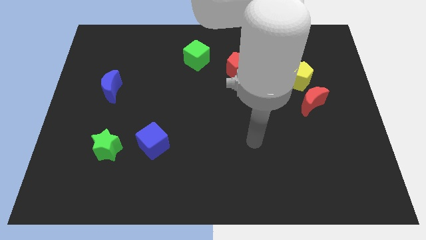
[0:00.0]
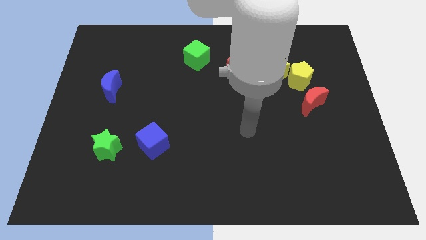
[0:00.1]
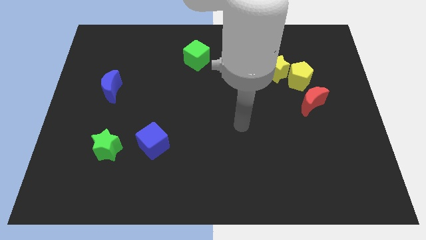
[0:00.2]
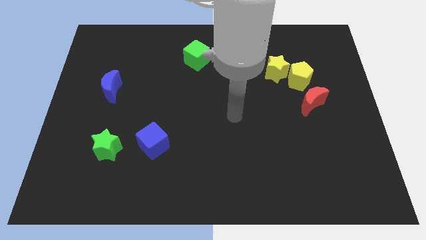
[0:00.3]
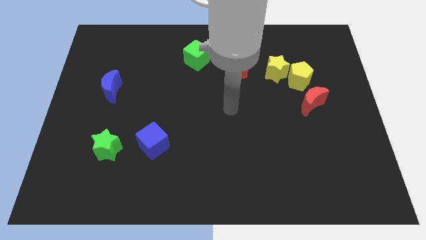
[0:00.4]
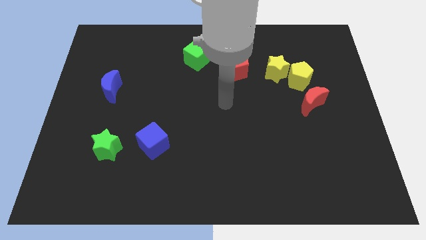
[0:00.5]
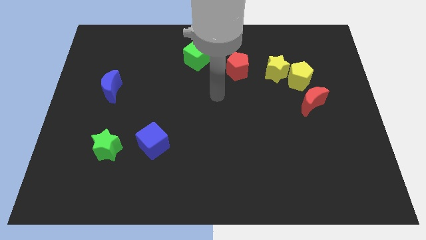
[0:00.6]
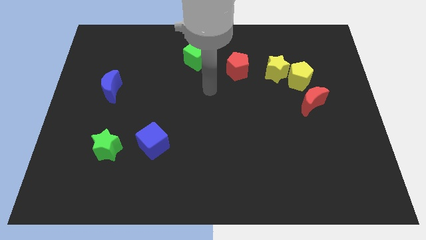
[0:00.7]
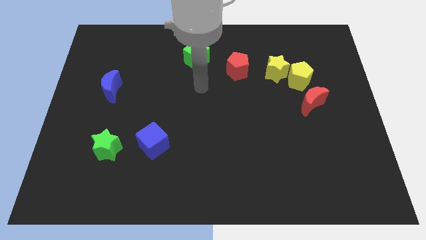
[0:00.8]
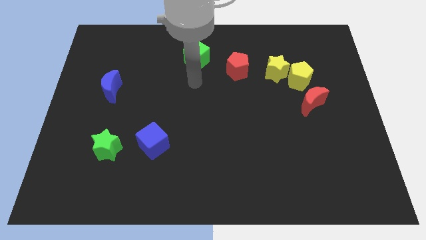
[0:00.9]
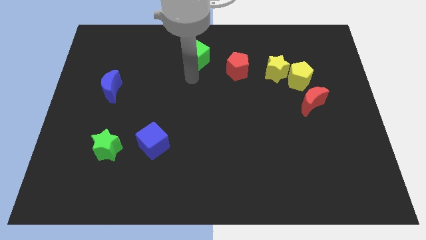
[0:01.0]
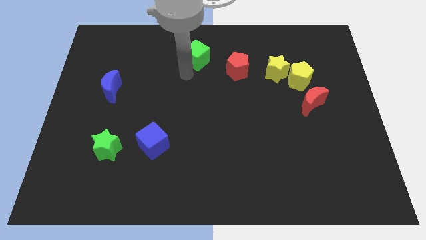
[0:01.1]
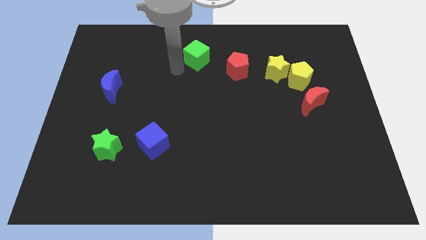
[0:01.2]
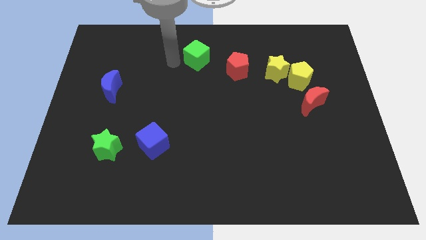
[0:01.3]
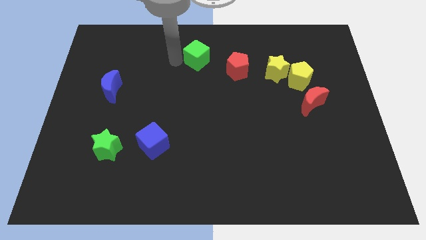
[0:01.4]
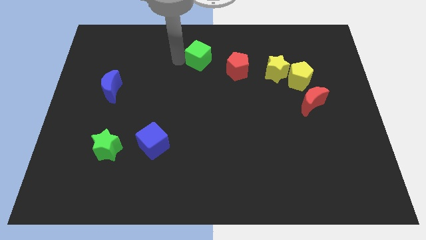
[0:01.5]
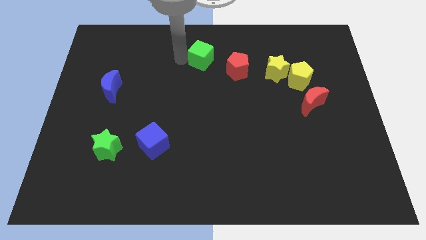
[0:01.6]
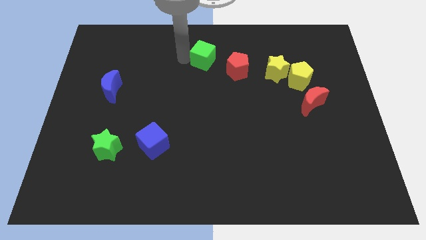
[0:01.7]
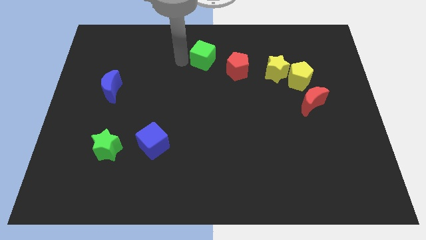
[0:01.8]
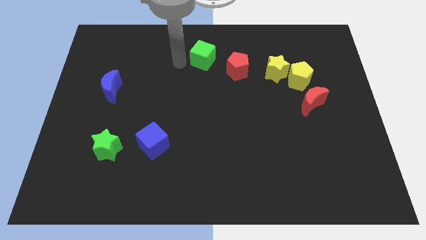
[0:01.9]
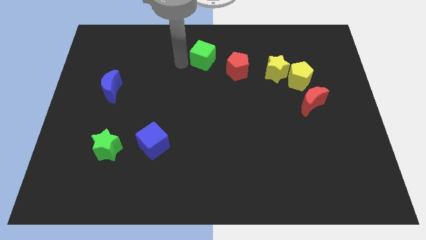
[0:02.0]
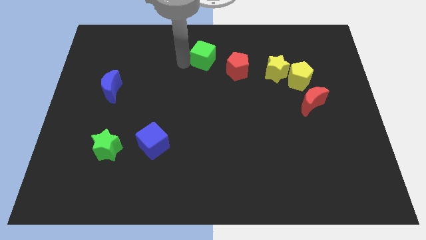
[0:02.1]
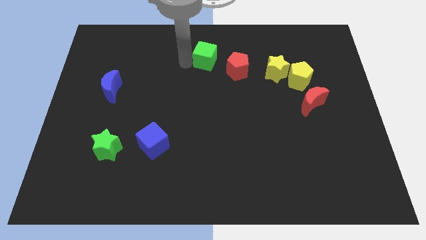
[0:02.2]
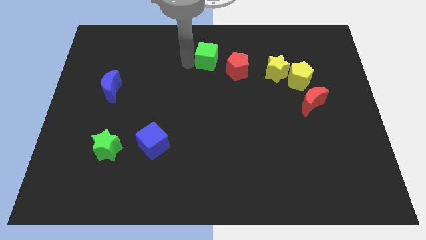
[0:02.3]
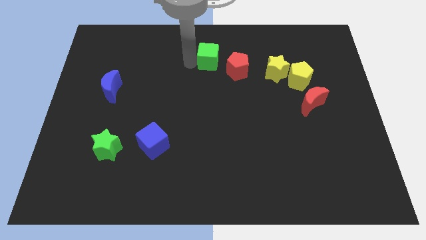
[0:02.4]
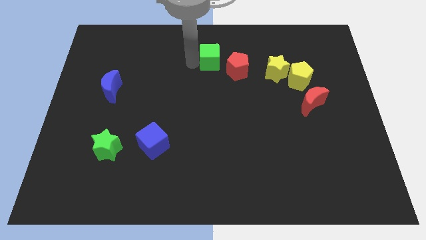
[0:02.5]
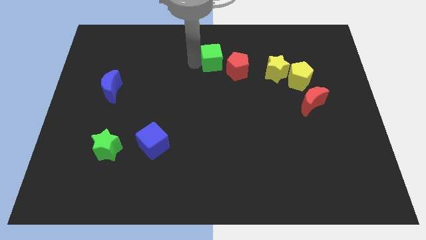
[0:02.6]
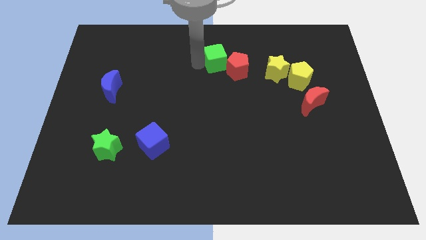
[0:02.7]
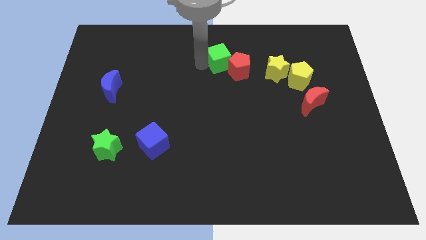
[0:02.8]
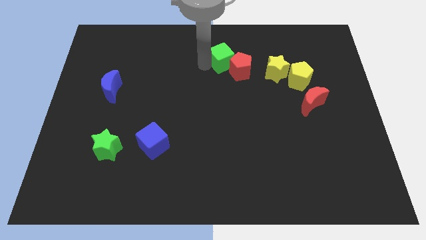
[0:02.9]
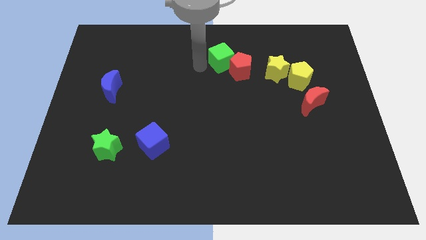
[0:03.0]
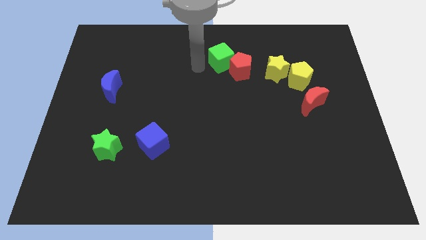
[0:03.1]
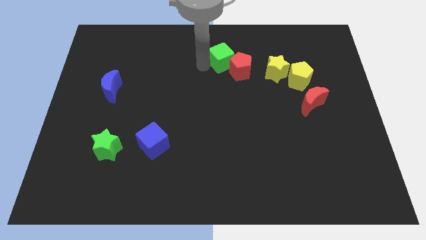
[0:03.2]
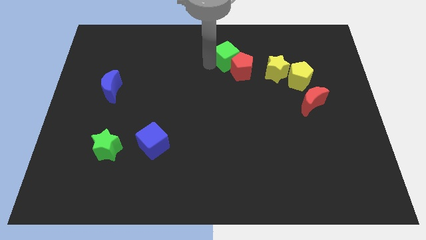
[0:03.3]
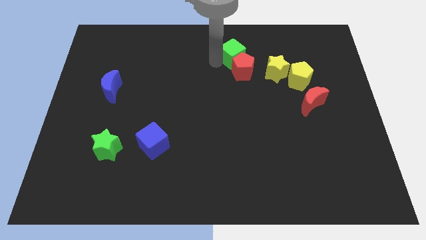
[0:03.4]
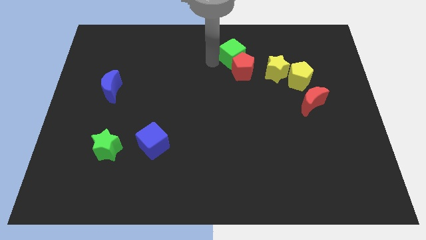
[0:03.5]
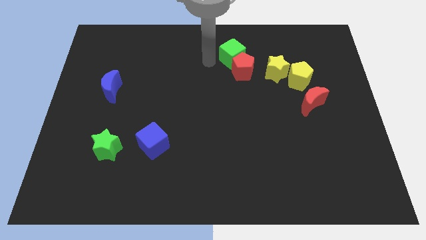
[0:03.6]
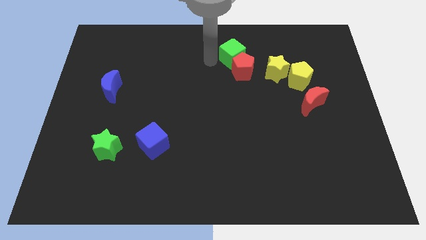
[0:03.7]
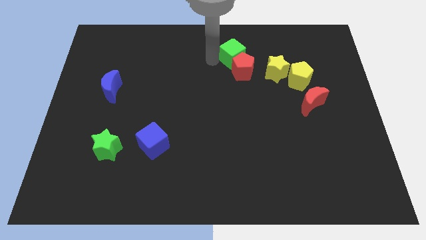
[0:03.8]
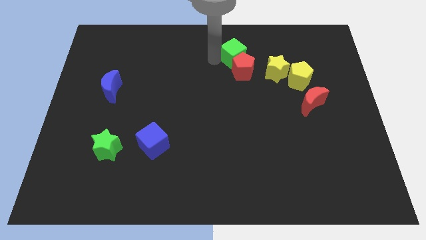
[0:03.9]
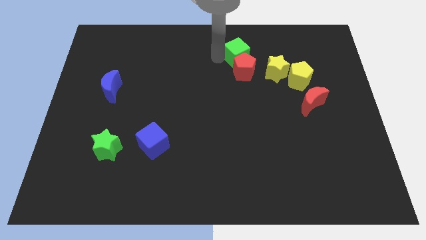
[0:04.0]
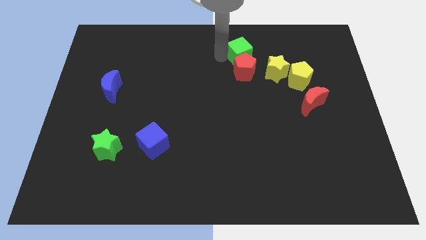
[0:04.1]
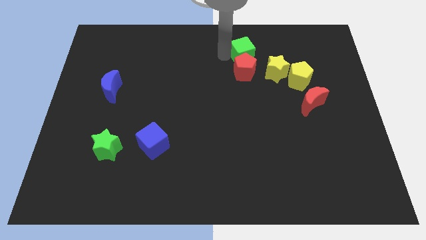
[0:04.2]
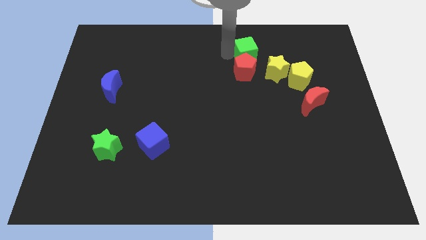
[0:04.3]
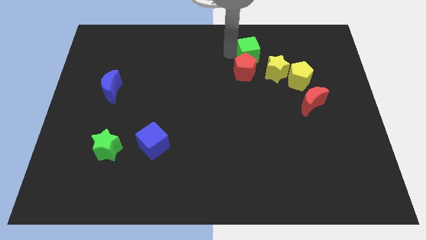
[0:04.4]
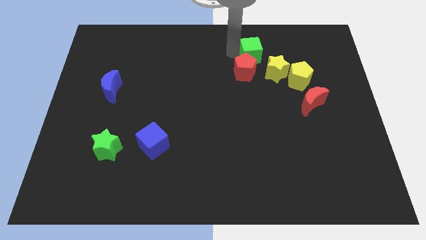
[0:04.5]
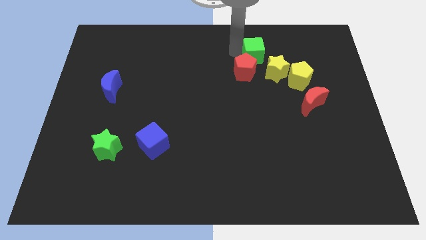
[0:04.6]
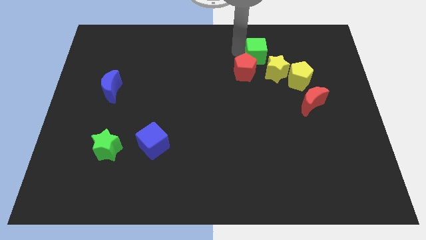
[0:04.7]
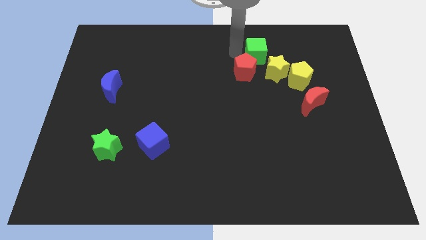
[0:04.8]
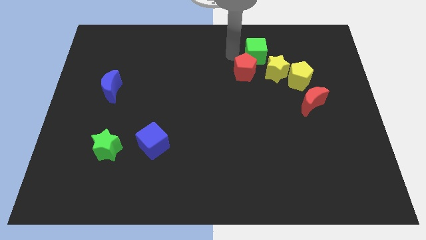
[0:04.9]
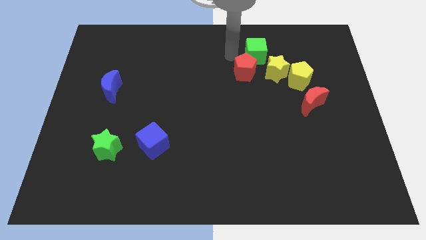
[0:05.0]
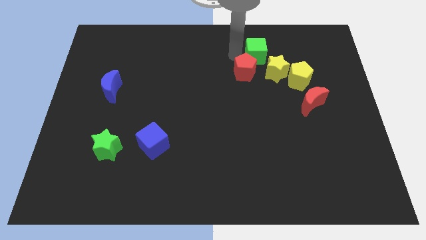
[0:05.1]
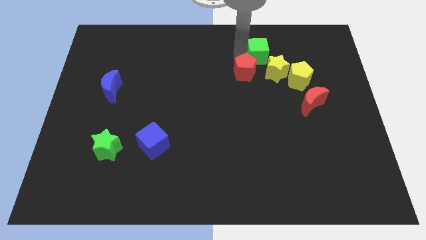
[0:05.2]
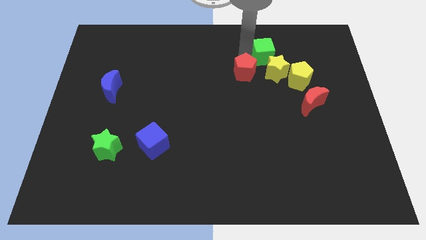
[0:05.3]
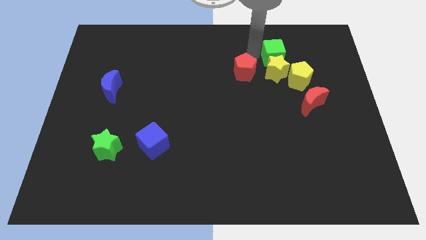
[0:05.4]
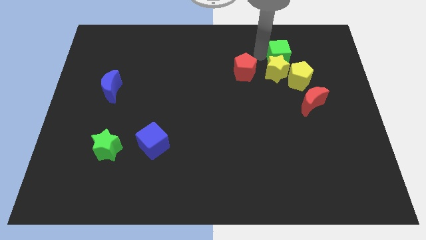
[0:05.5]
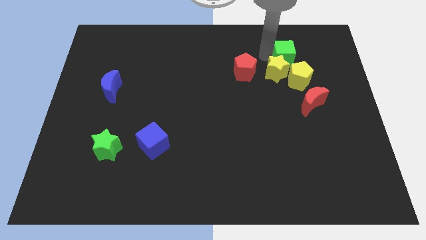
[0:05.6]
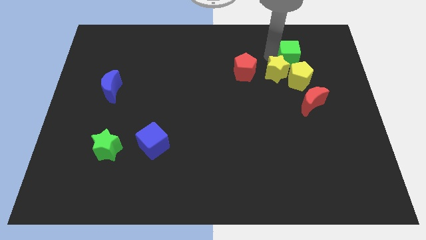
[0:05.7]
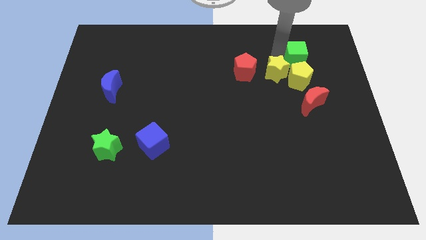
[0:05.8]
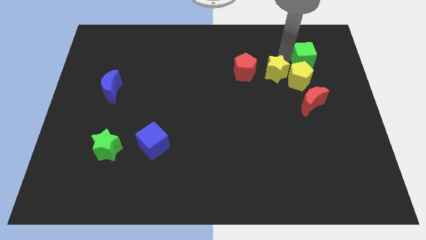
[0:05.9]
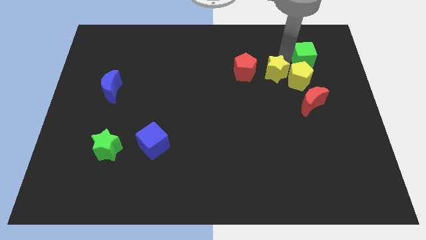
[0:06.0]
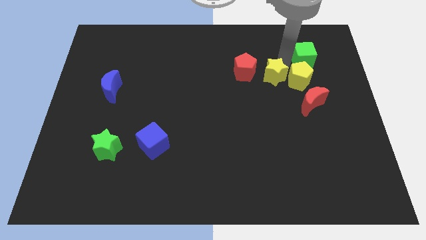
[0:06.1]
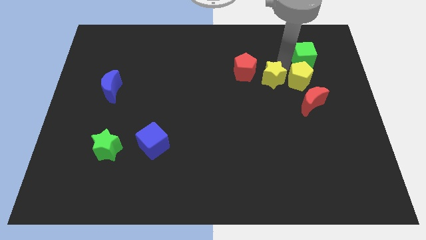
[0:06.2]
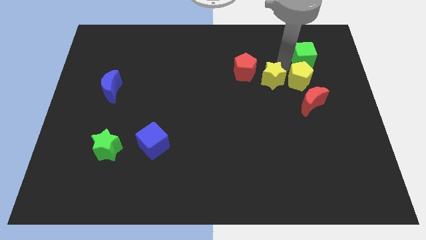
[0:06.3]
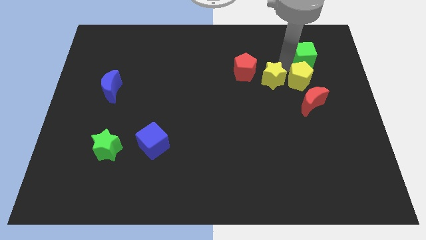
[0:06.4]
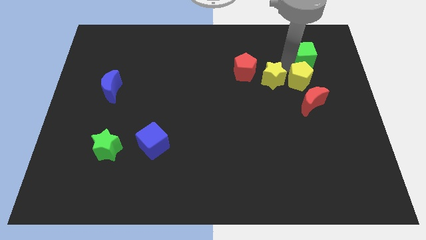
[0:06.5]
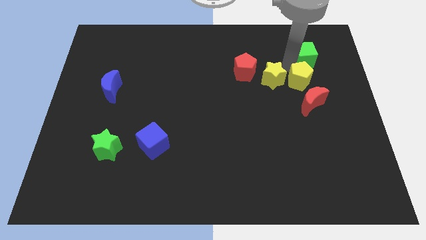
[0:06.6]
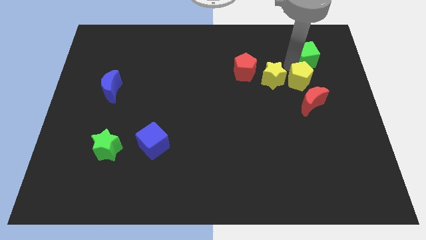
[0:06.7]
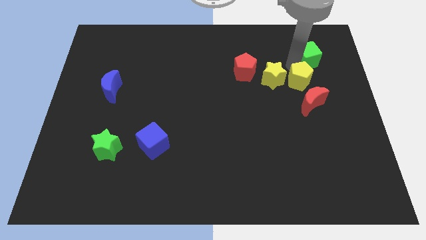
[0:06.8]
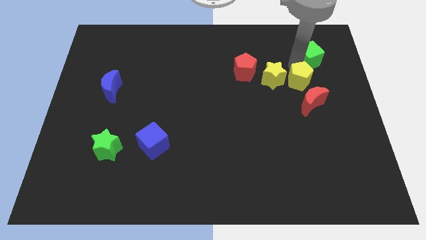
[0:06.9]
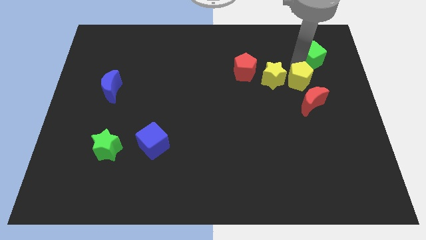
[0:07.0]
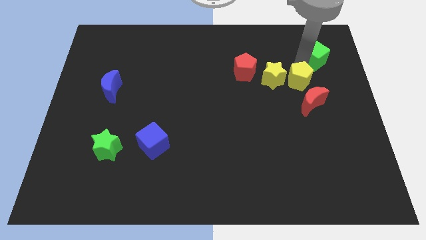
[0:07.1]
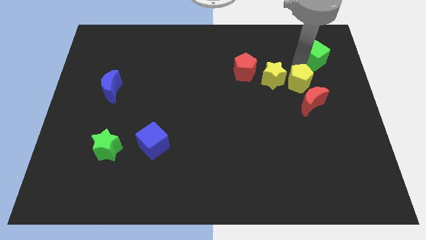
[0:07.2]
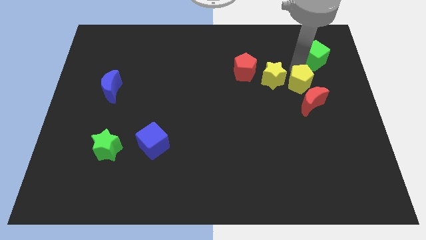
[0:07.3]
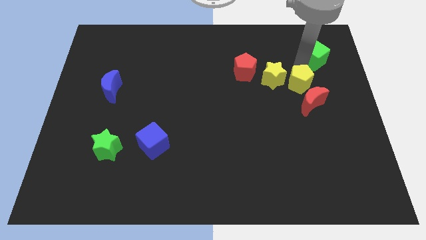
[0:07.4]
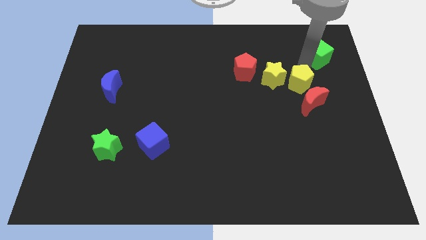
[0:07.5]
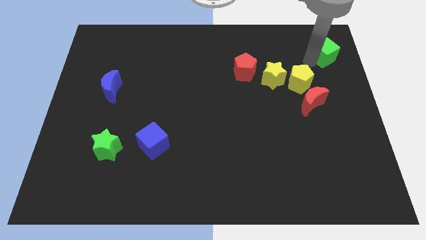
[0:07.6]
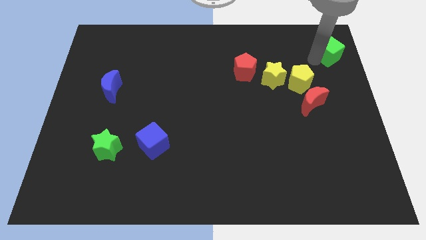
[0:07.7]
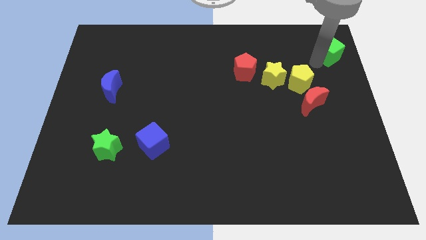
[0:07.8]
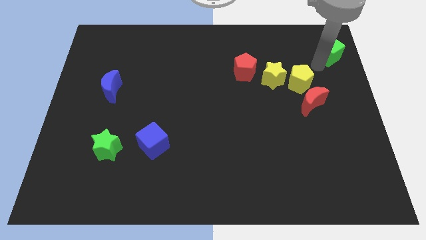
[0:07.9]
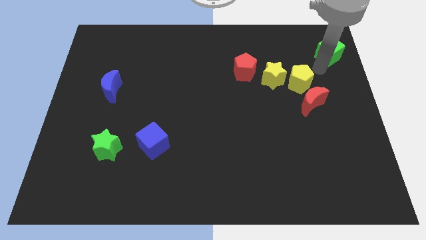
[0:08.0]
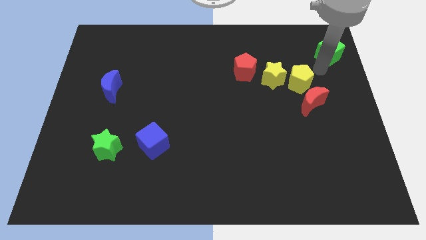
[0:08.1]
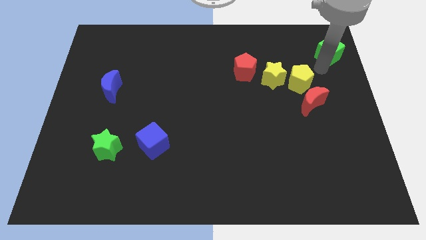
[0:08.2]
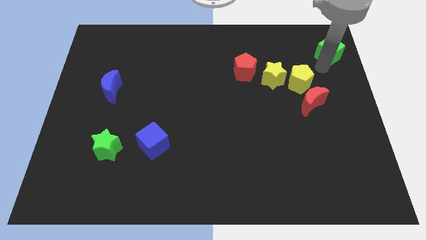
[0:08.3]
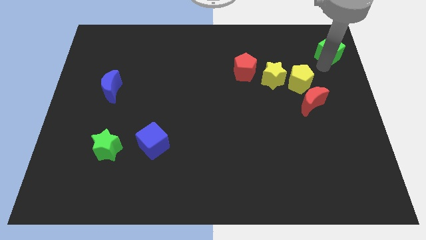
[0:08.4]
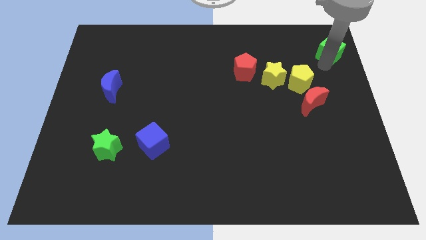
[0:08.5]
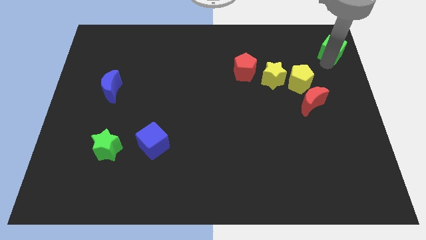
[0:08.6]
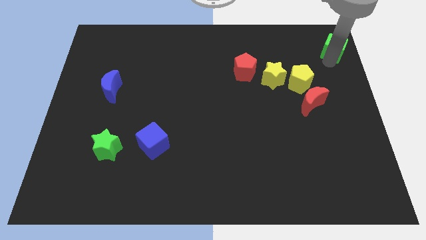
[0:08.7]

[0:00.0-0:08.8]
put the green cube to the upper right corner
